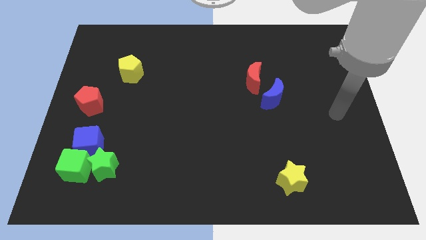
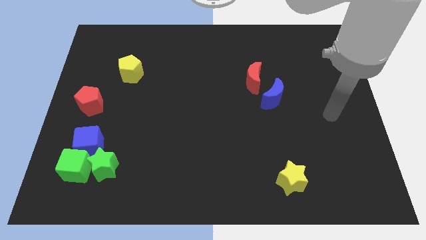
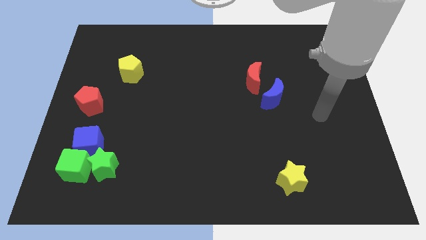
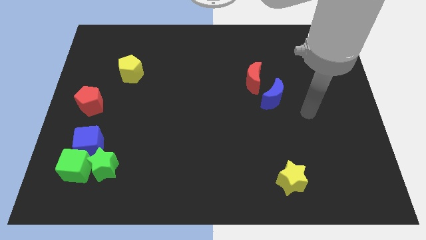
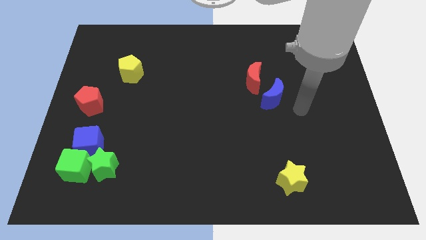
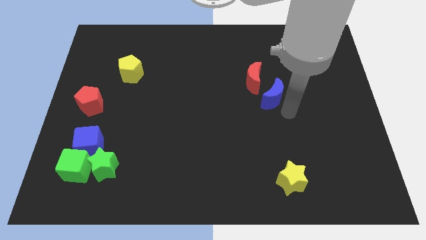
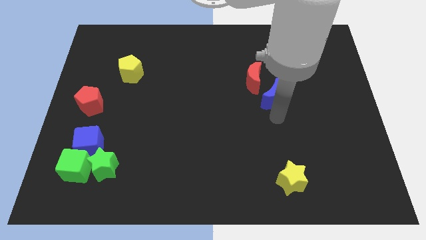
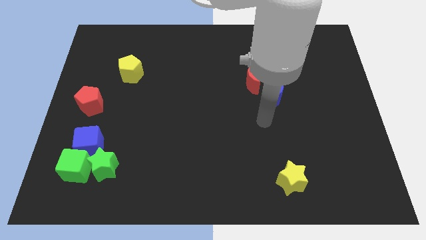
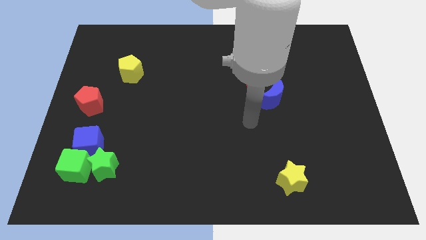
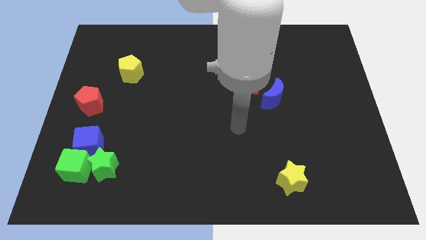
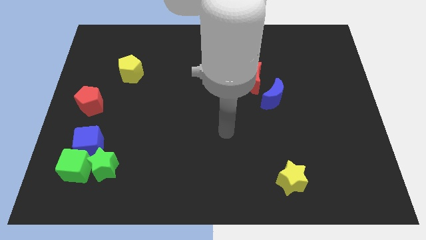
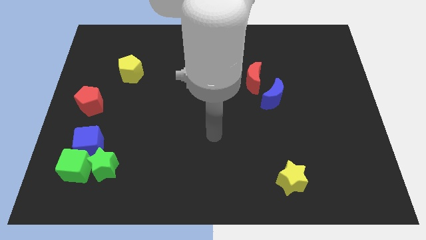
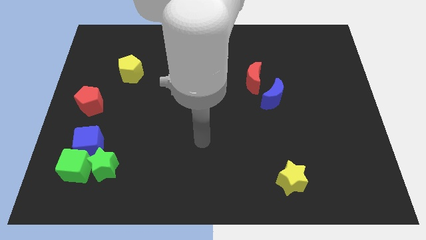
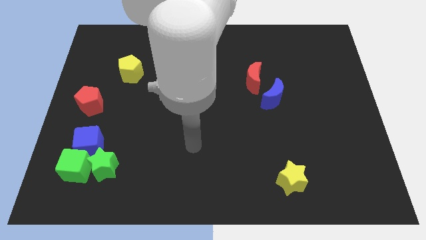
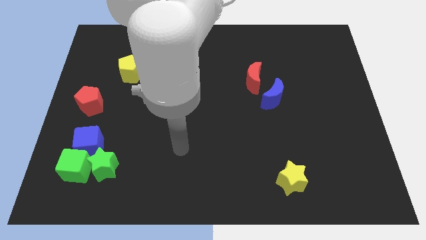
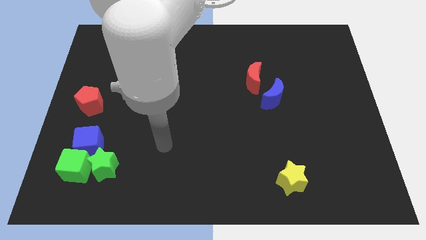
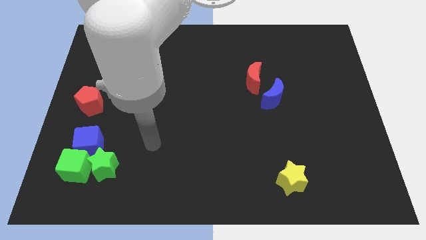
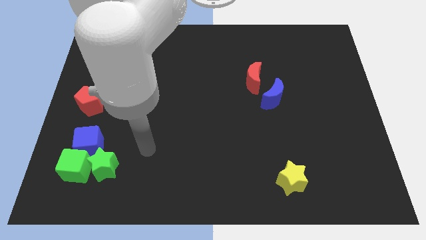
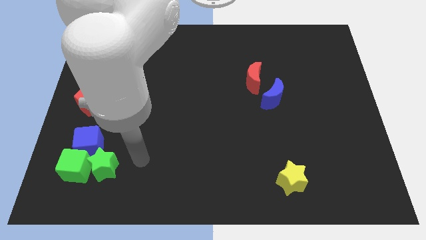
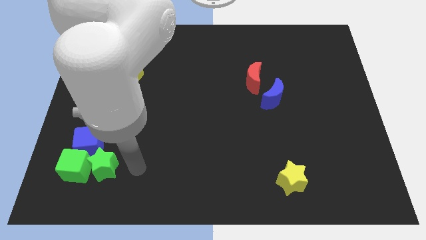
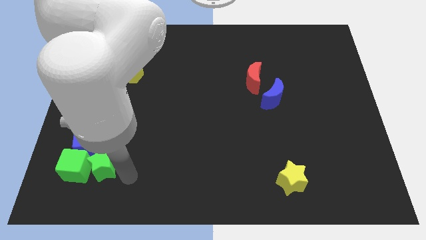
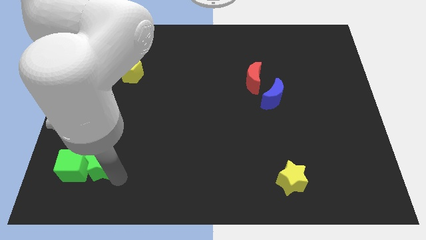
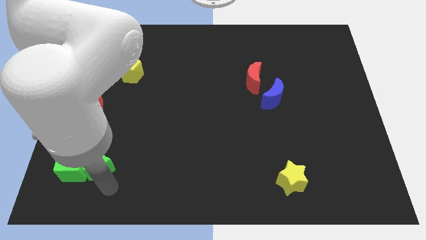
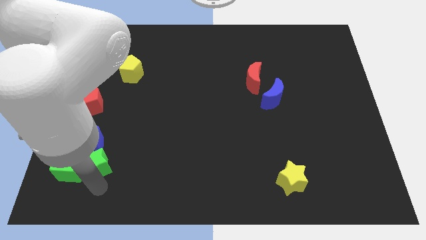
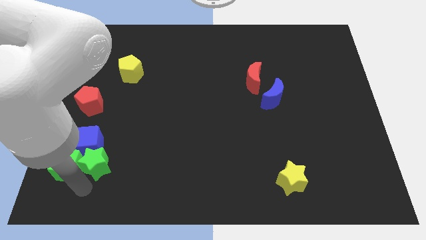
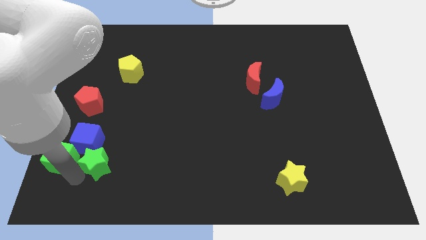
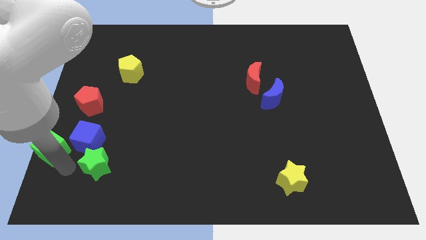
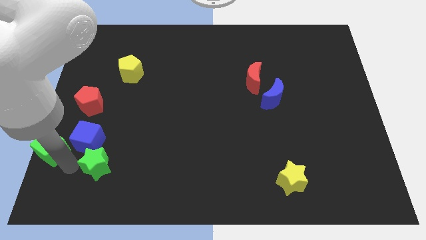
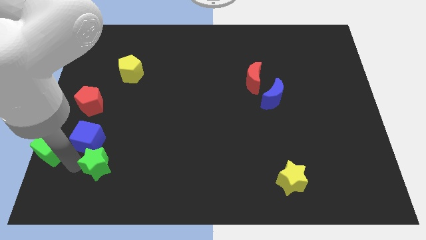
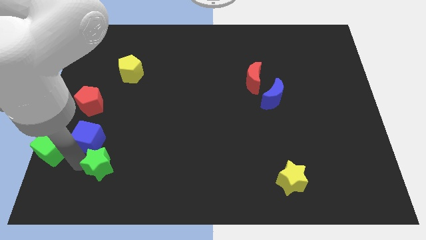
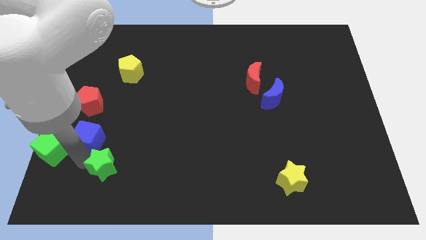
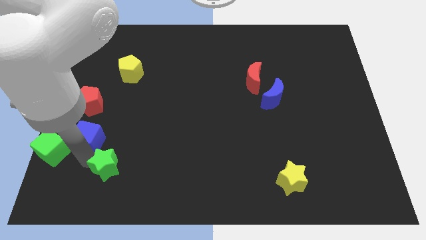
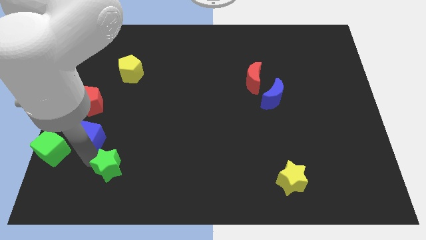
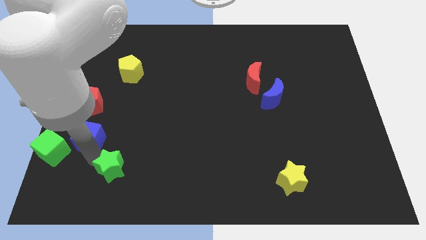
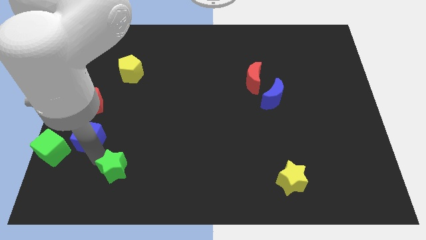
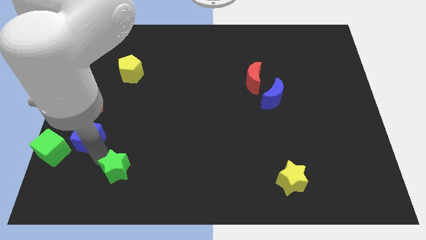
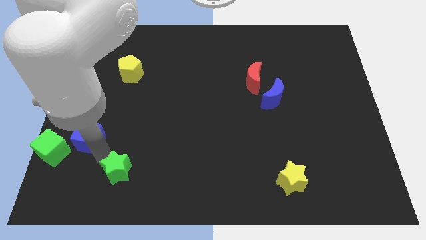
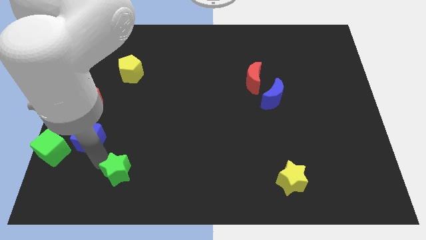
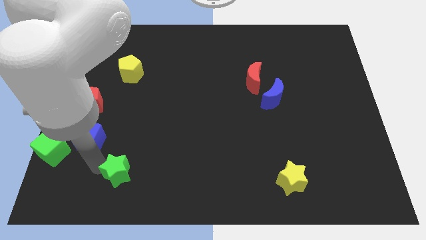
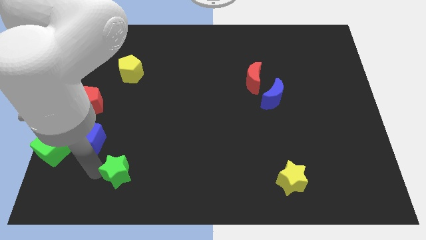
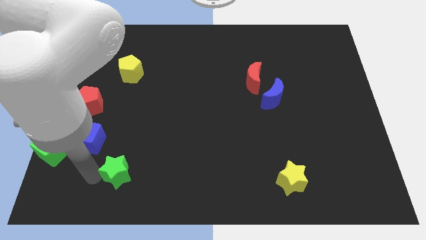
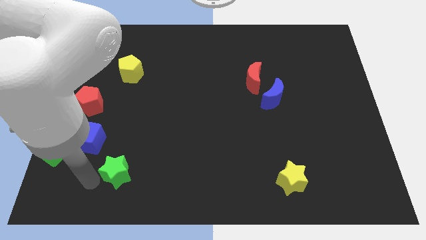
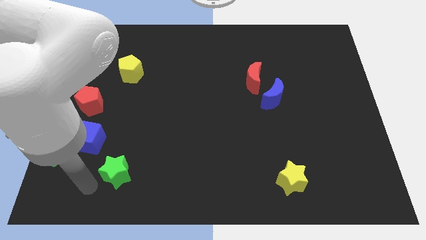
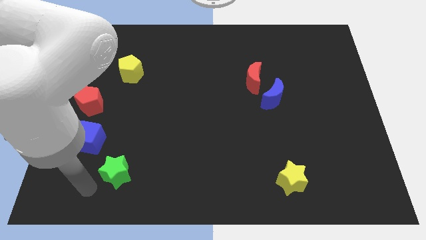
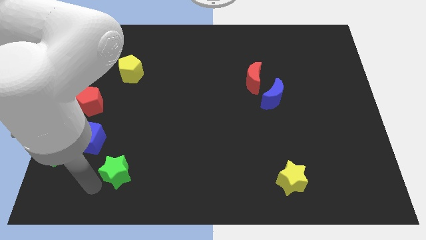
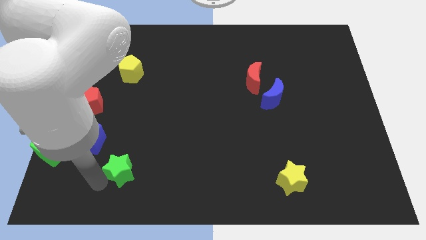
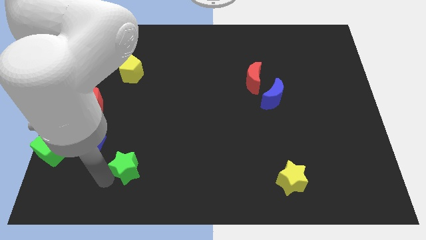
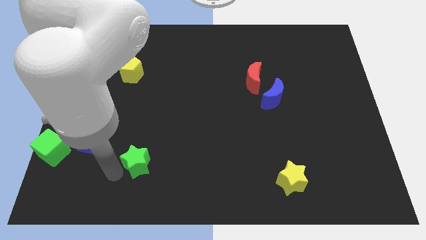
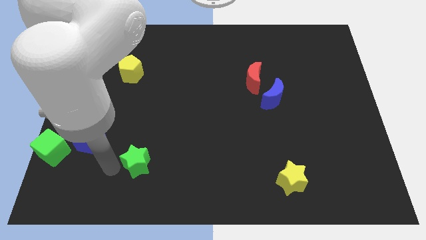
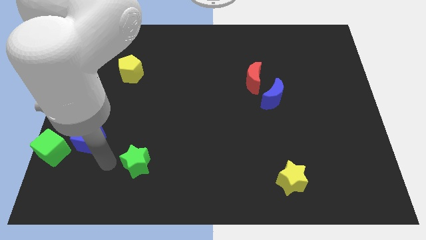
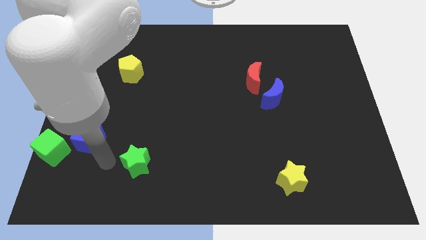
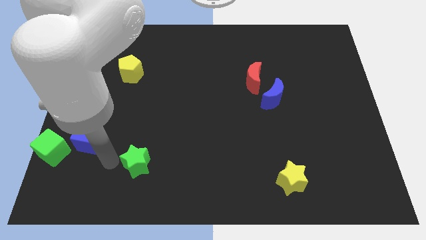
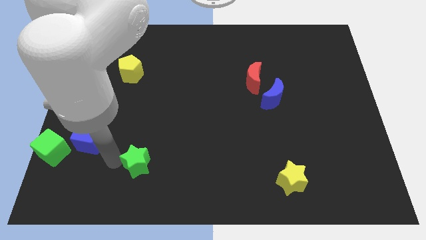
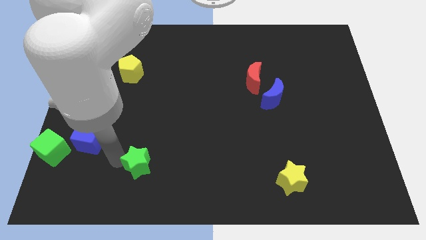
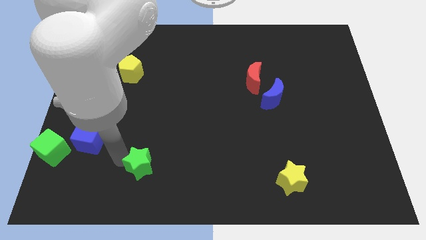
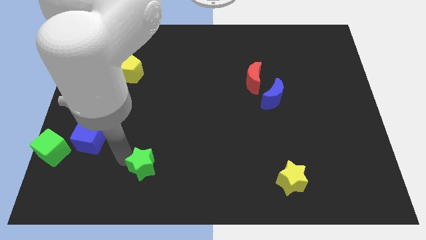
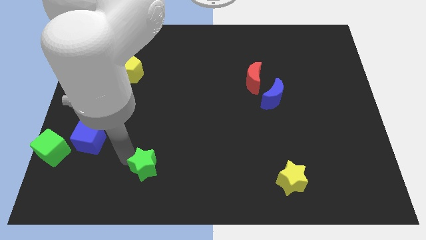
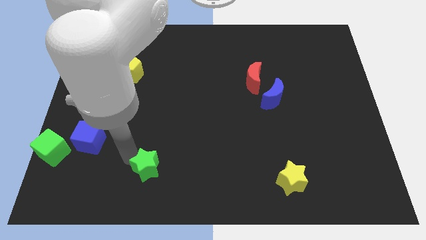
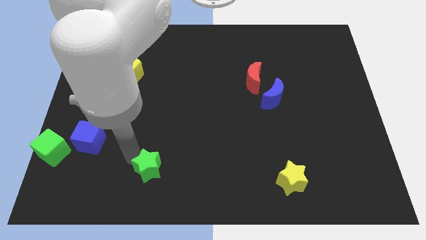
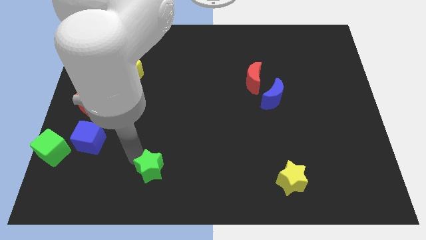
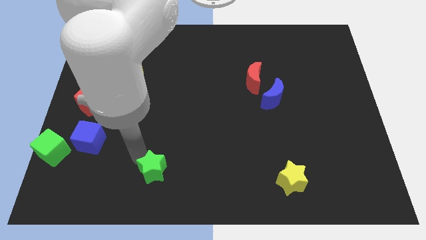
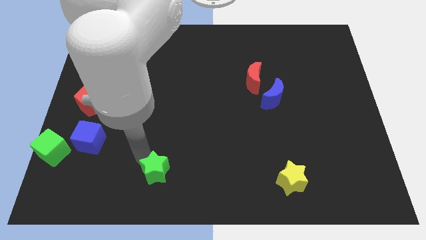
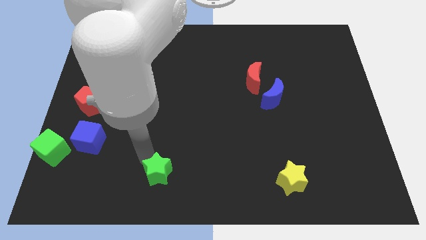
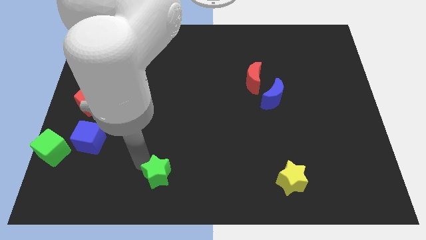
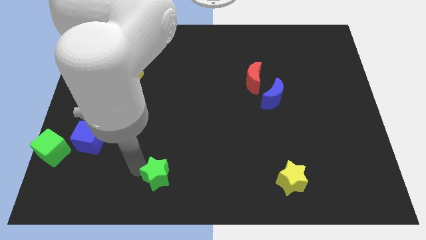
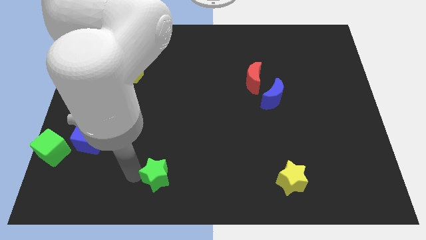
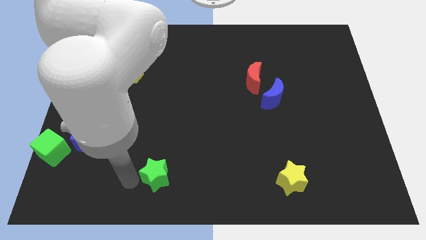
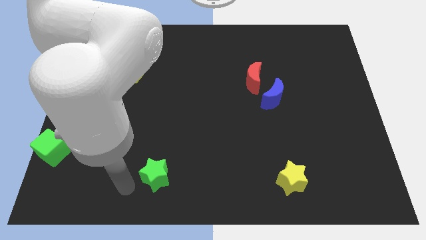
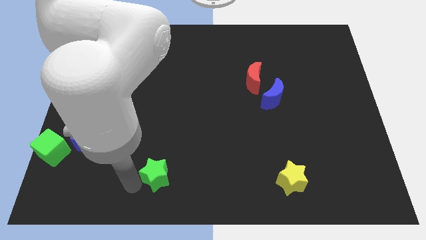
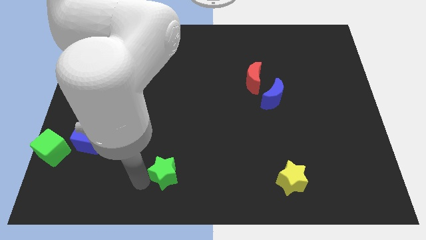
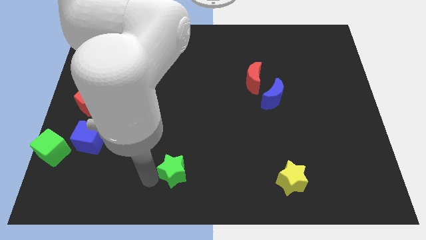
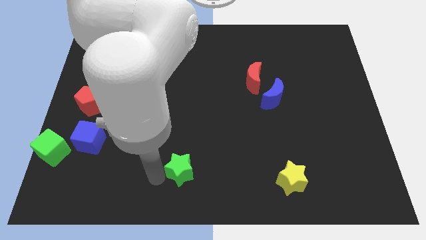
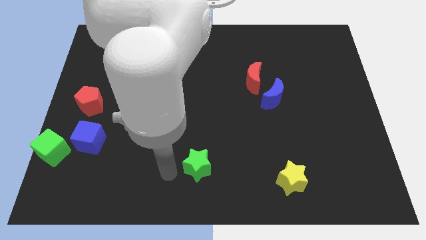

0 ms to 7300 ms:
push the green star to the right

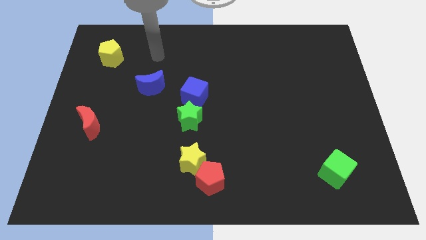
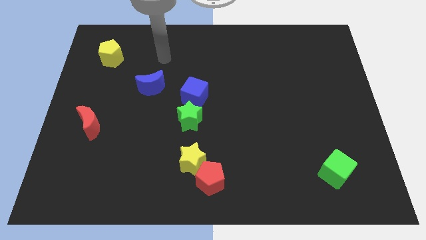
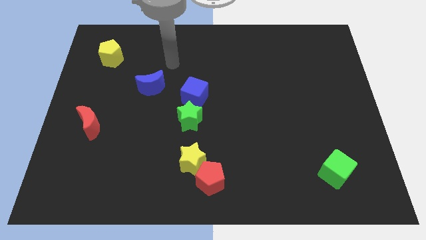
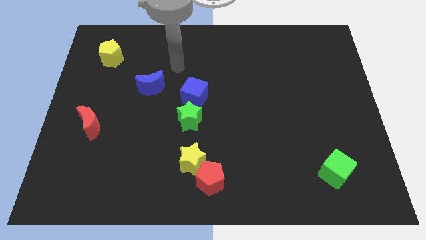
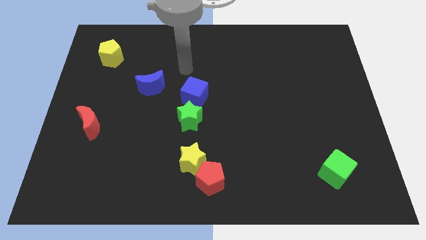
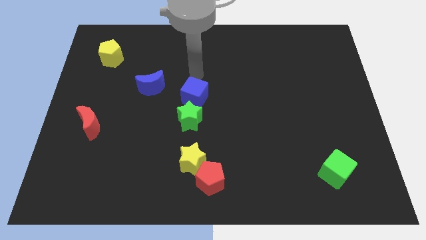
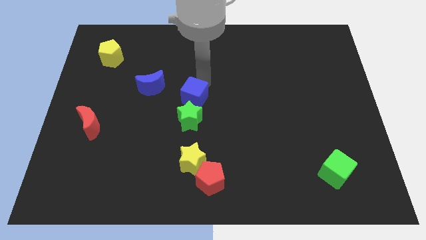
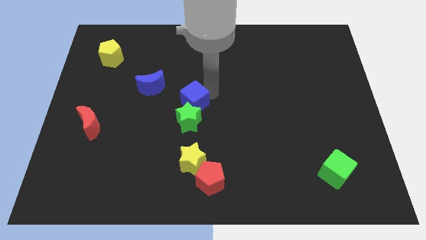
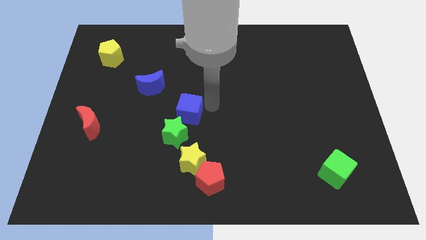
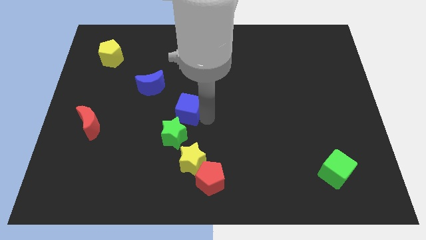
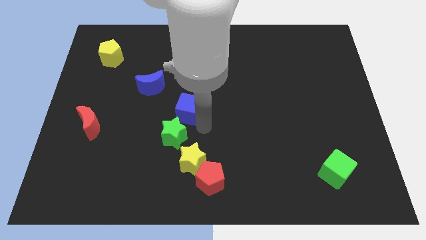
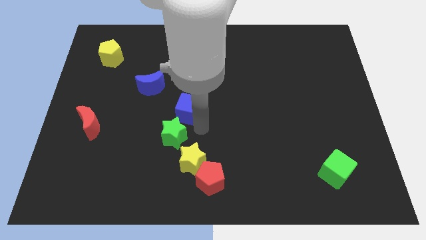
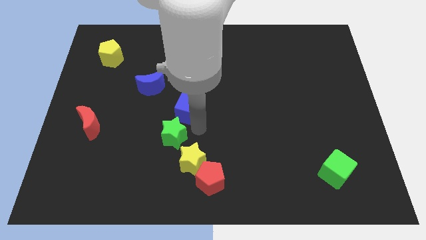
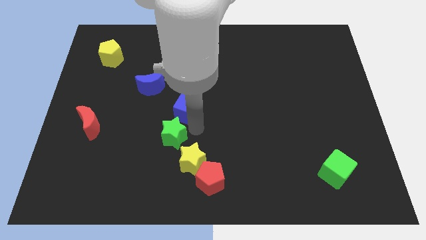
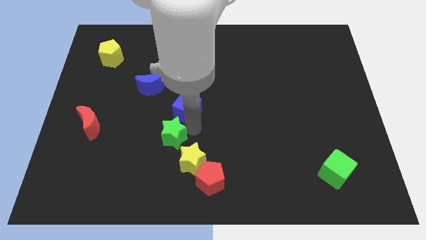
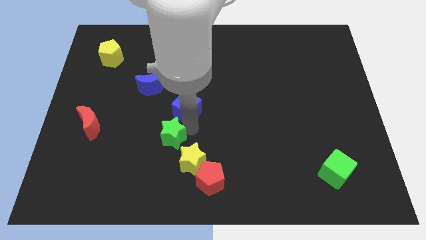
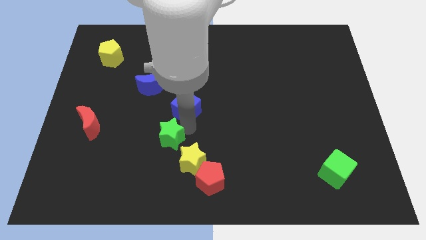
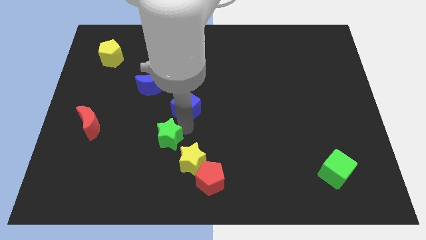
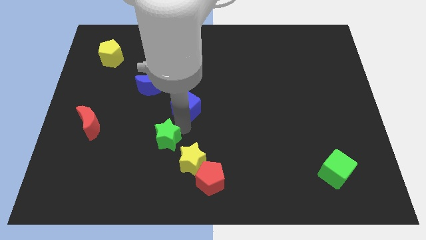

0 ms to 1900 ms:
move the green star a little bit down and then to the left
